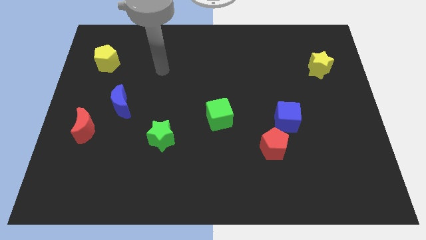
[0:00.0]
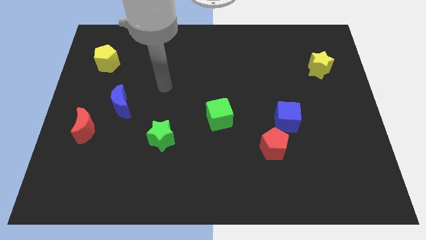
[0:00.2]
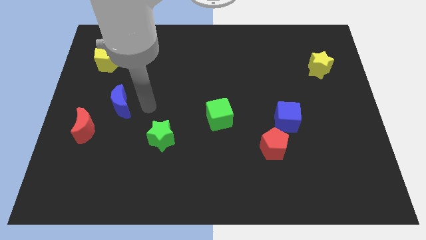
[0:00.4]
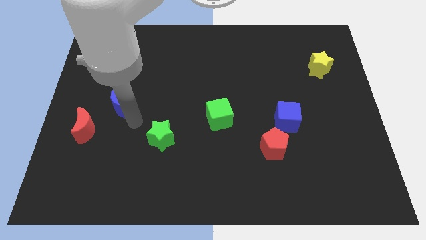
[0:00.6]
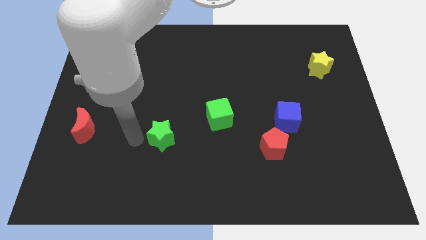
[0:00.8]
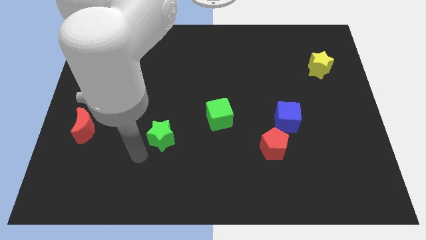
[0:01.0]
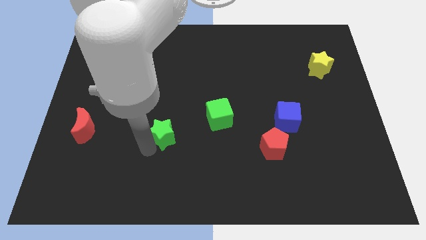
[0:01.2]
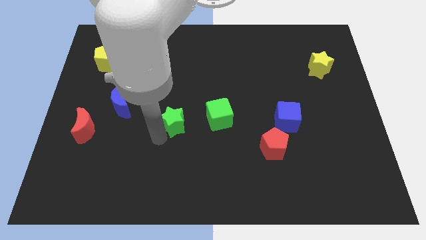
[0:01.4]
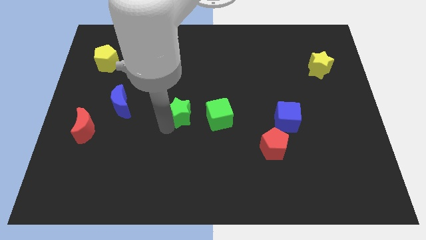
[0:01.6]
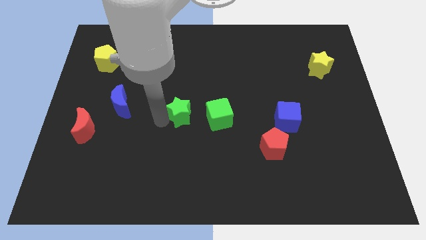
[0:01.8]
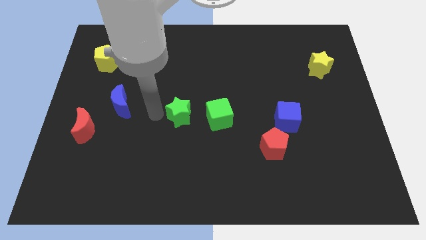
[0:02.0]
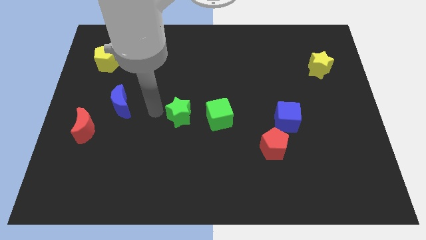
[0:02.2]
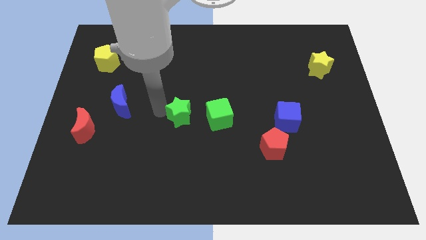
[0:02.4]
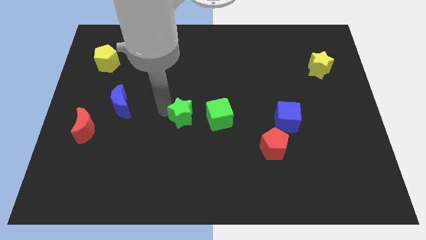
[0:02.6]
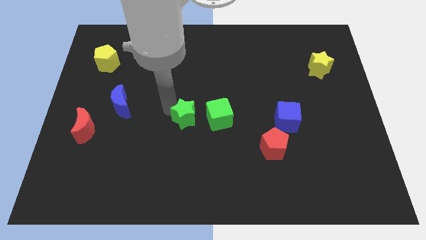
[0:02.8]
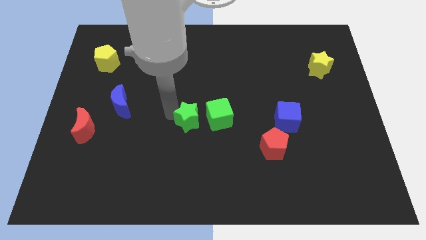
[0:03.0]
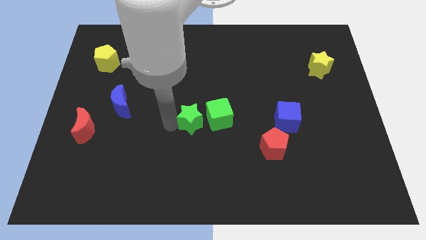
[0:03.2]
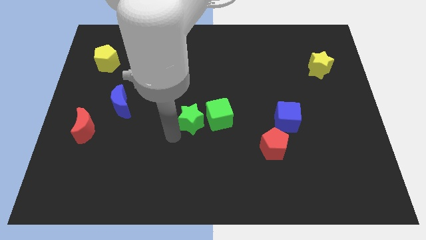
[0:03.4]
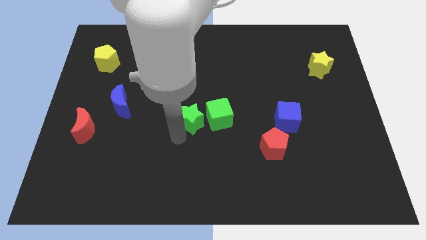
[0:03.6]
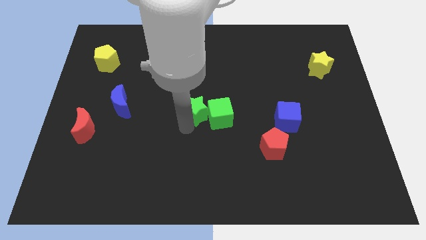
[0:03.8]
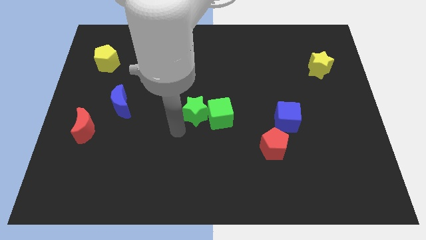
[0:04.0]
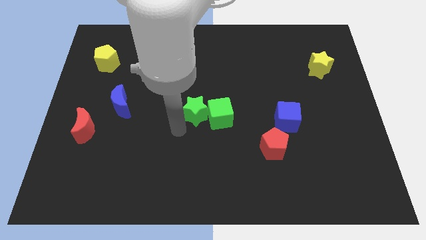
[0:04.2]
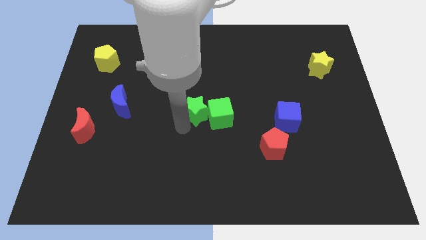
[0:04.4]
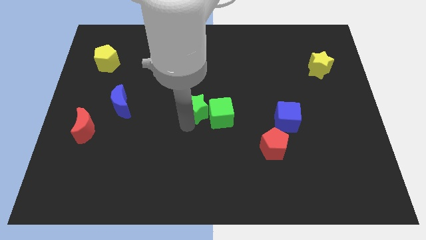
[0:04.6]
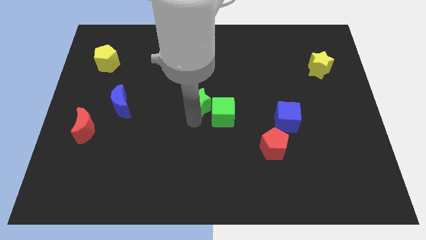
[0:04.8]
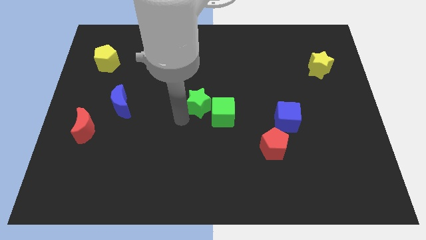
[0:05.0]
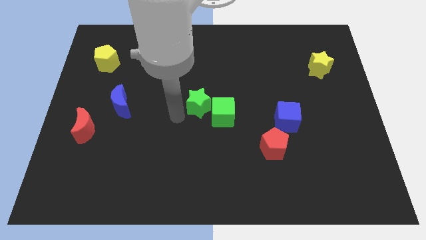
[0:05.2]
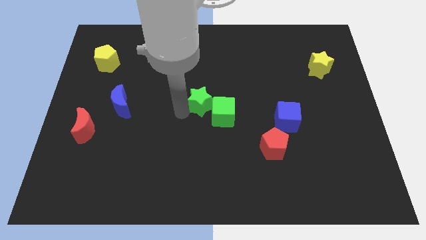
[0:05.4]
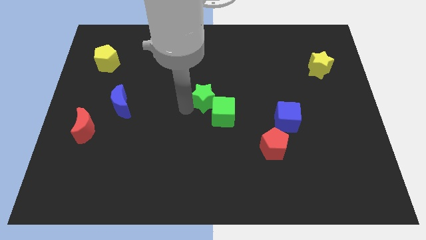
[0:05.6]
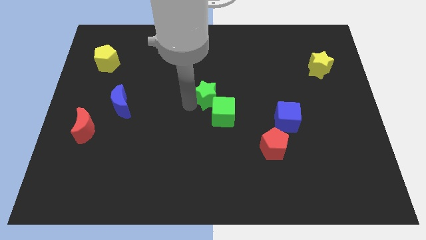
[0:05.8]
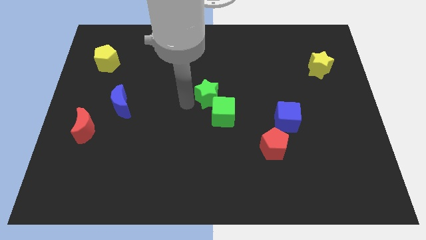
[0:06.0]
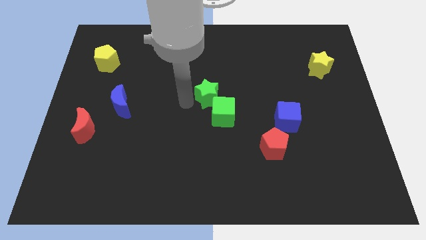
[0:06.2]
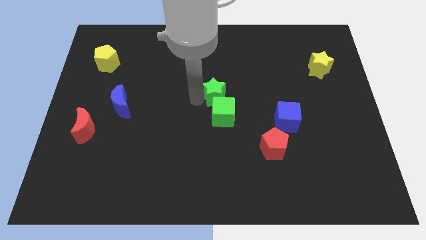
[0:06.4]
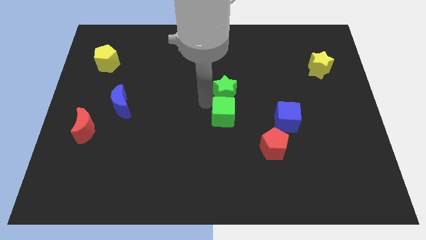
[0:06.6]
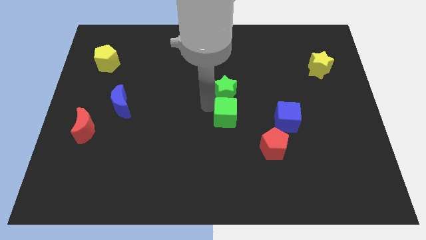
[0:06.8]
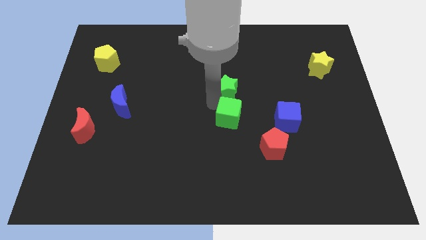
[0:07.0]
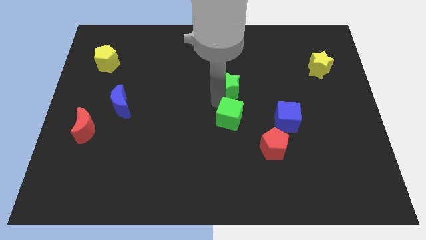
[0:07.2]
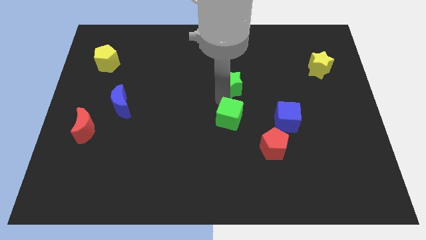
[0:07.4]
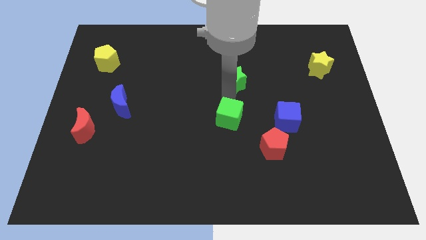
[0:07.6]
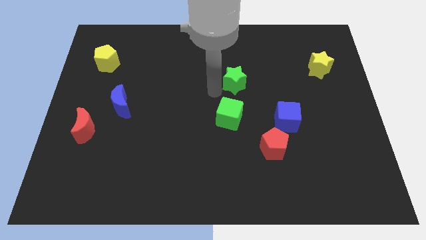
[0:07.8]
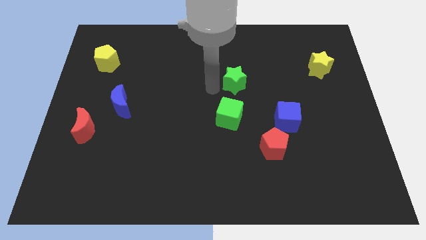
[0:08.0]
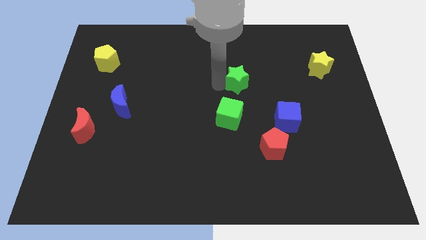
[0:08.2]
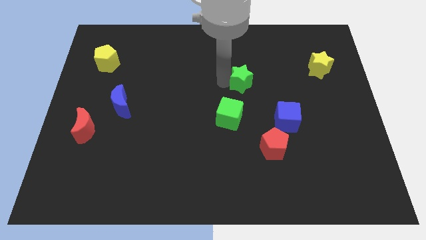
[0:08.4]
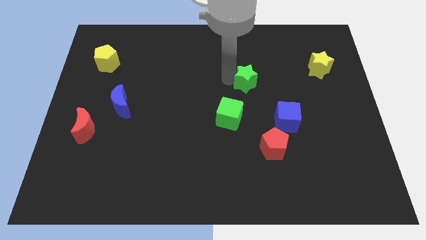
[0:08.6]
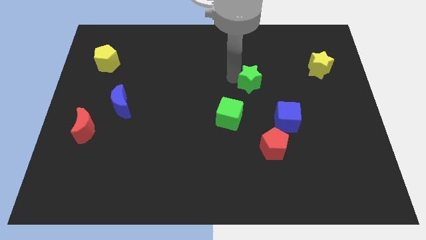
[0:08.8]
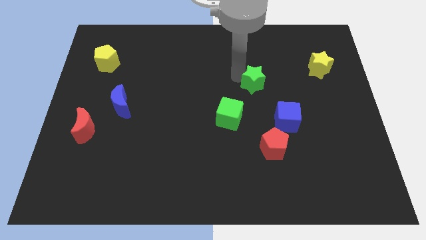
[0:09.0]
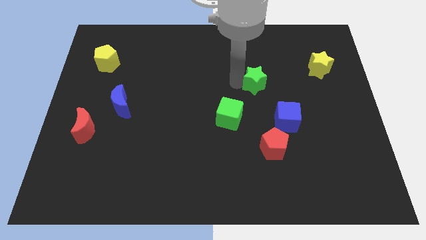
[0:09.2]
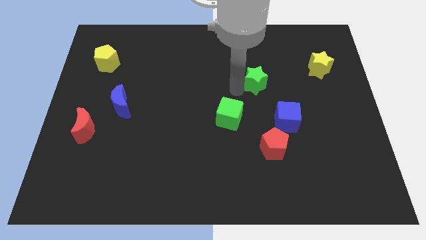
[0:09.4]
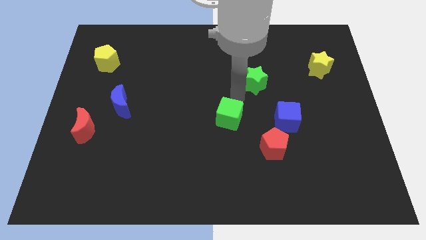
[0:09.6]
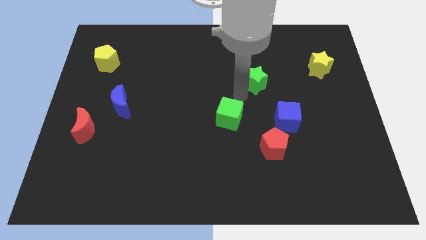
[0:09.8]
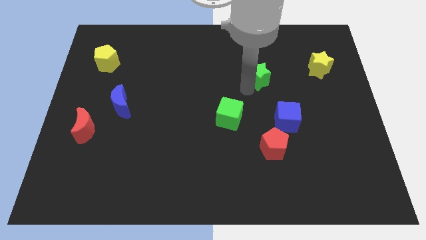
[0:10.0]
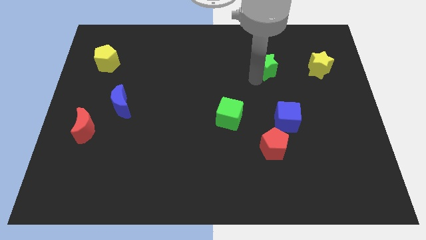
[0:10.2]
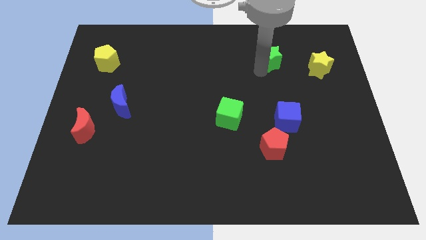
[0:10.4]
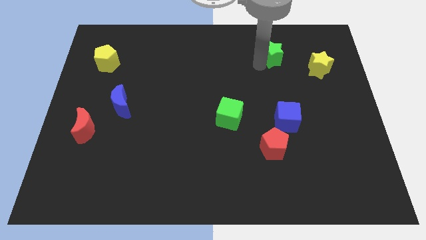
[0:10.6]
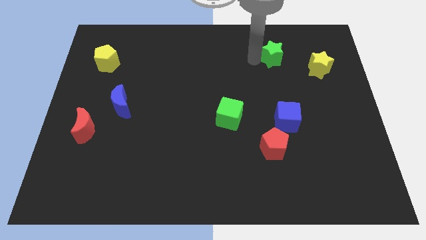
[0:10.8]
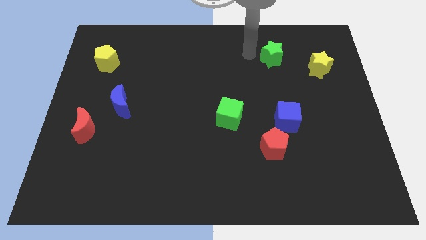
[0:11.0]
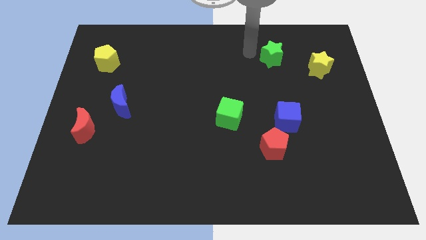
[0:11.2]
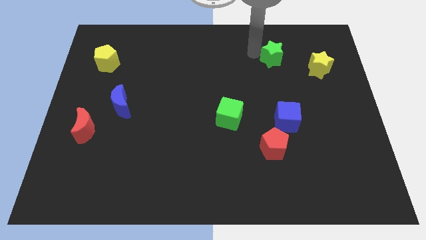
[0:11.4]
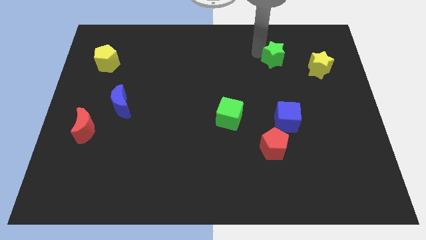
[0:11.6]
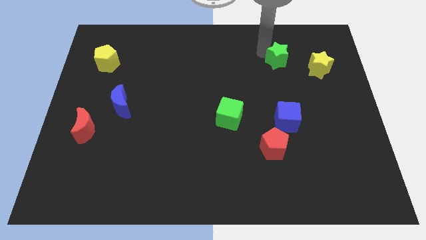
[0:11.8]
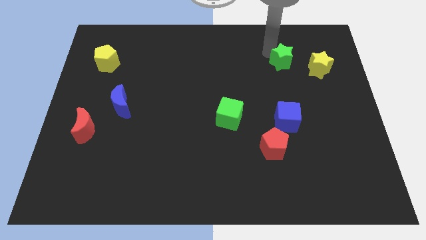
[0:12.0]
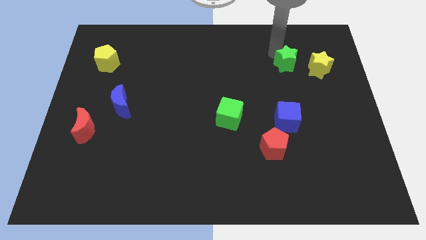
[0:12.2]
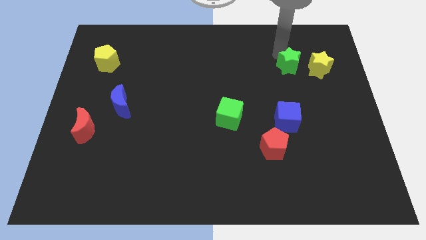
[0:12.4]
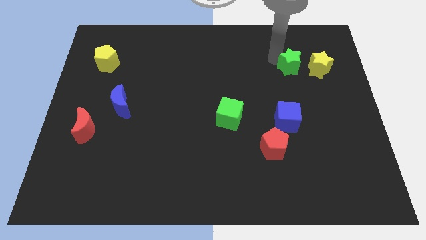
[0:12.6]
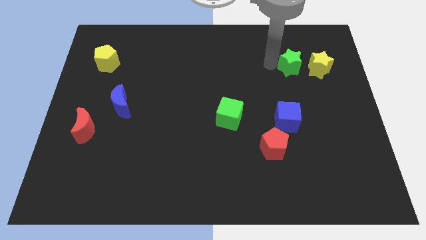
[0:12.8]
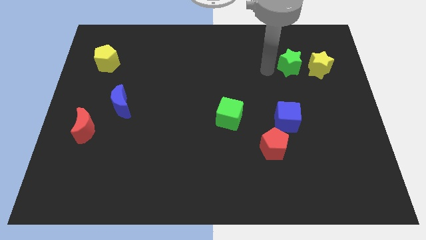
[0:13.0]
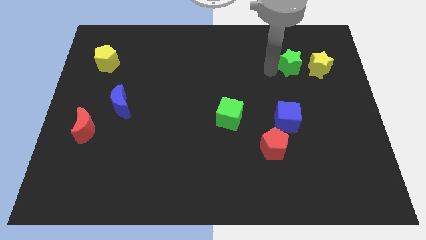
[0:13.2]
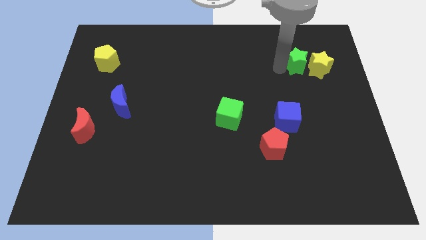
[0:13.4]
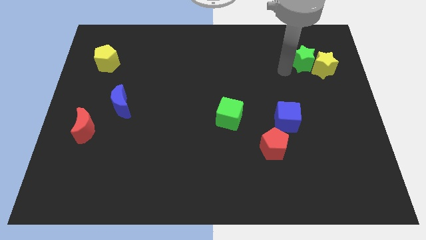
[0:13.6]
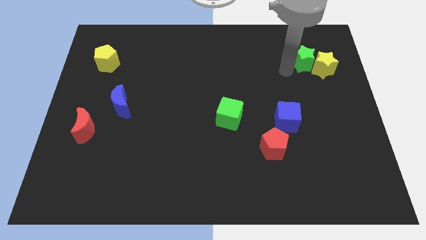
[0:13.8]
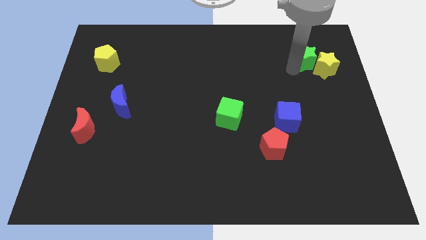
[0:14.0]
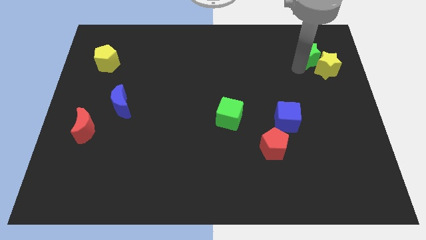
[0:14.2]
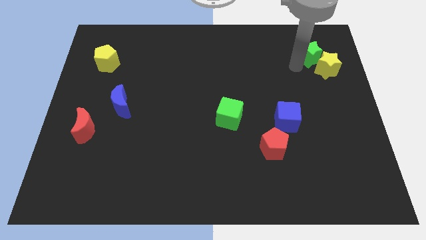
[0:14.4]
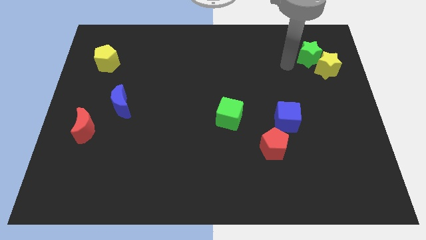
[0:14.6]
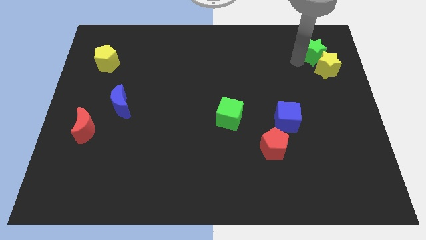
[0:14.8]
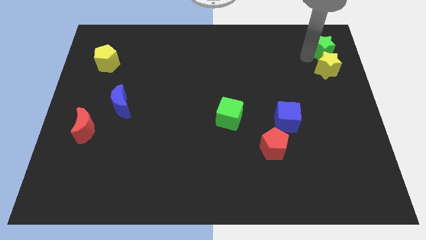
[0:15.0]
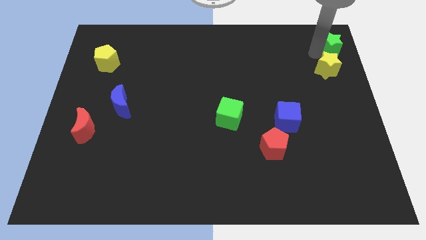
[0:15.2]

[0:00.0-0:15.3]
put the green star to the upper right corner
